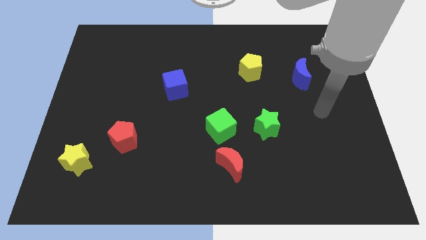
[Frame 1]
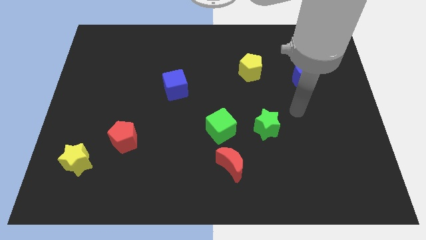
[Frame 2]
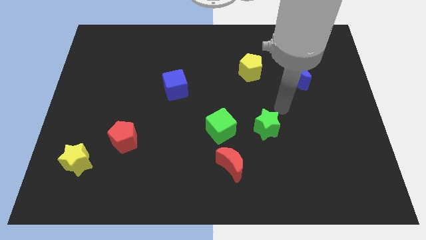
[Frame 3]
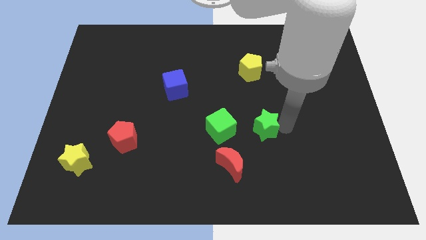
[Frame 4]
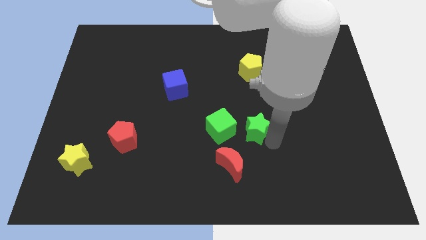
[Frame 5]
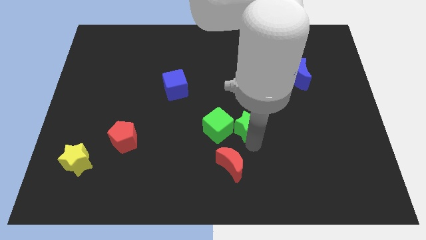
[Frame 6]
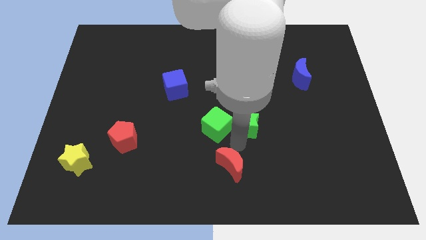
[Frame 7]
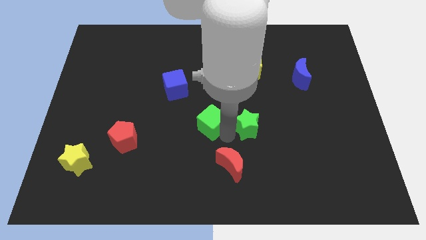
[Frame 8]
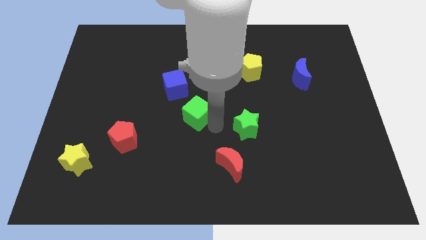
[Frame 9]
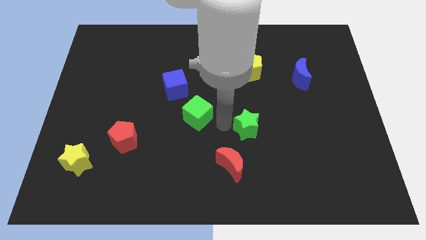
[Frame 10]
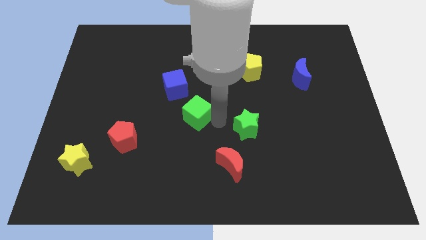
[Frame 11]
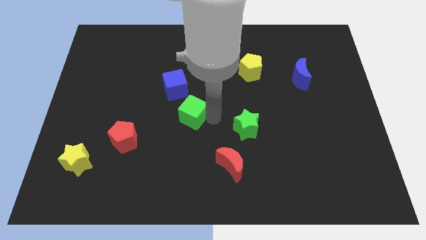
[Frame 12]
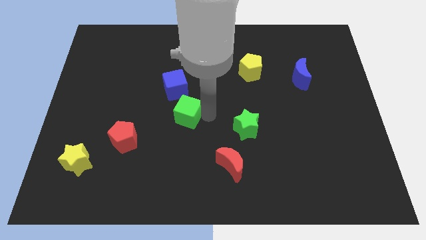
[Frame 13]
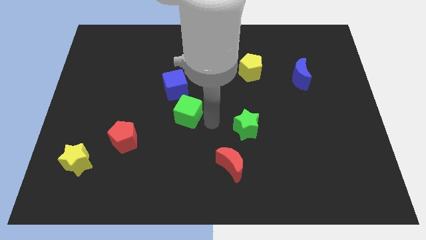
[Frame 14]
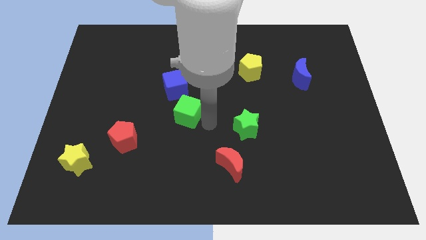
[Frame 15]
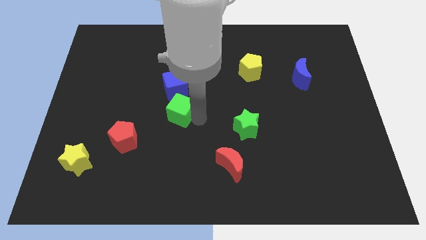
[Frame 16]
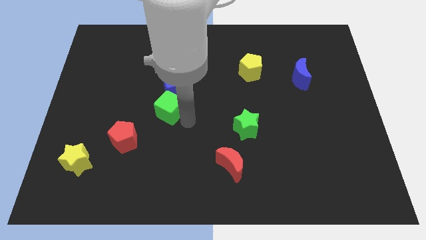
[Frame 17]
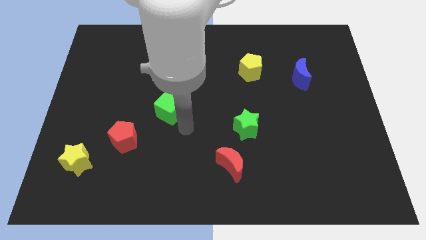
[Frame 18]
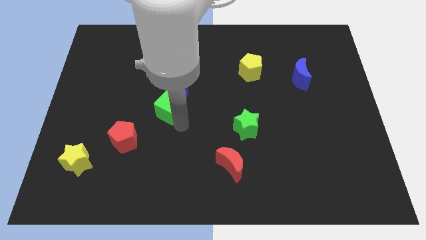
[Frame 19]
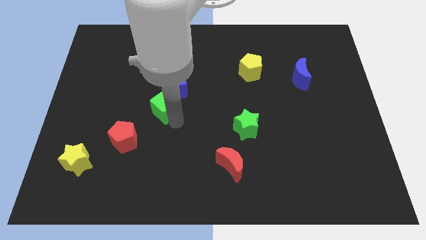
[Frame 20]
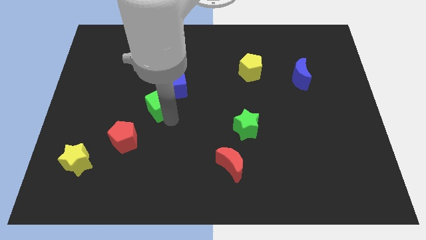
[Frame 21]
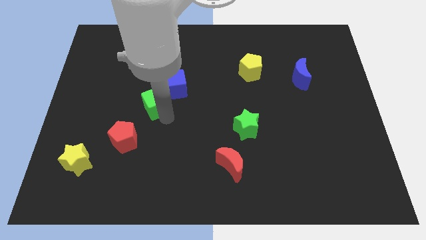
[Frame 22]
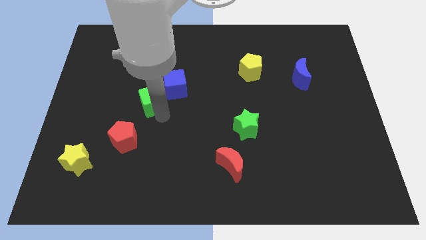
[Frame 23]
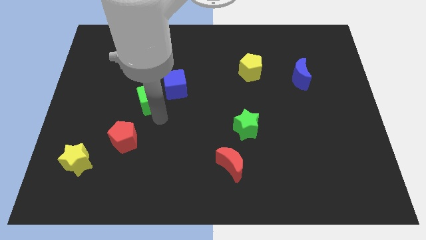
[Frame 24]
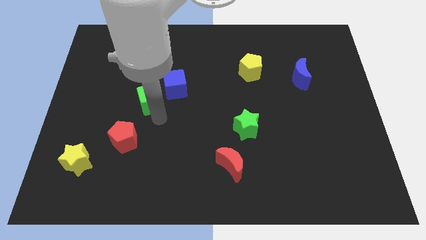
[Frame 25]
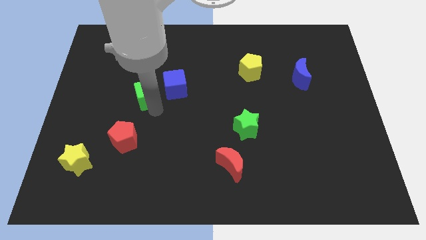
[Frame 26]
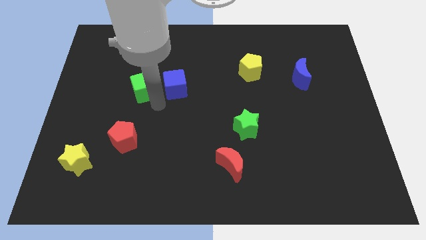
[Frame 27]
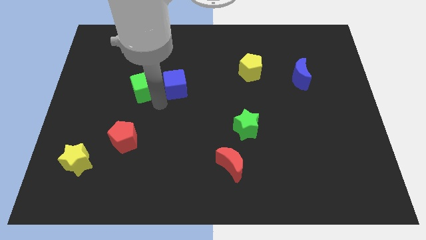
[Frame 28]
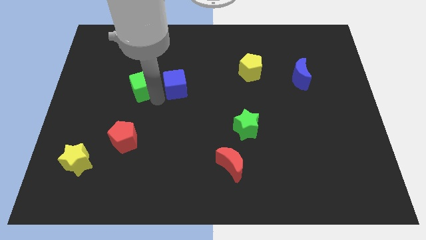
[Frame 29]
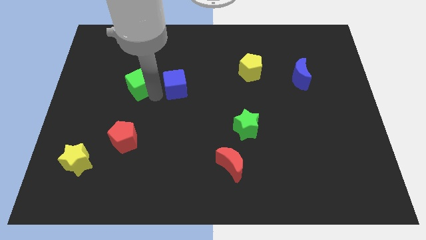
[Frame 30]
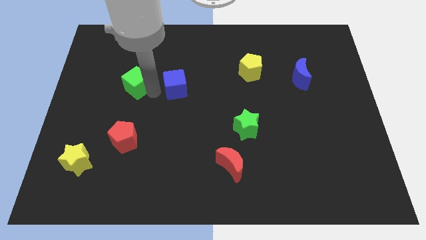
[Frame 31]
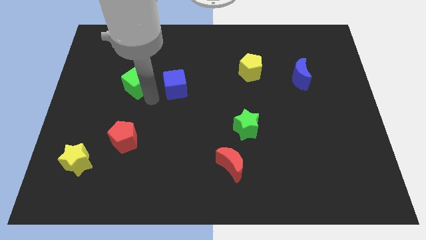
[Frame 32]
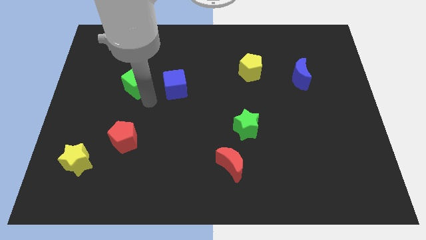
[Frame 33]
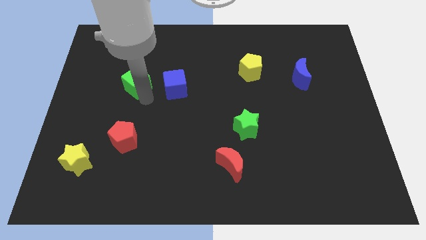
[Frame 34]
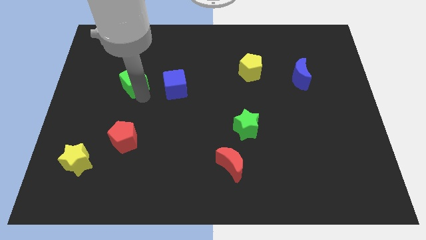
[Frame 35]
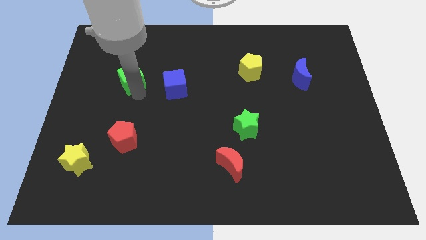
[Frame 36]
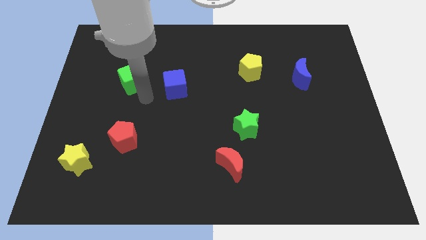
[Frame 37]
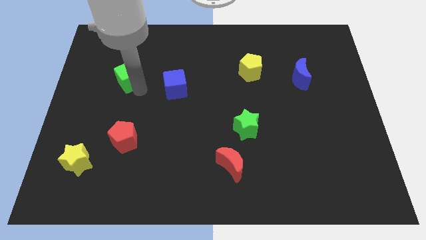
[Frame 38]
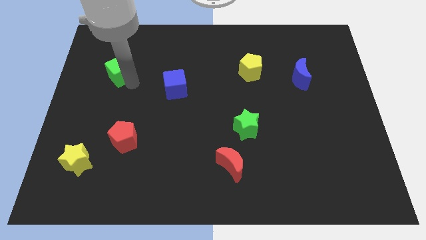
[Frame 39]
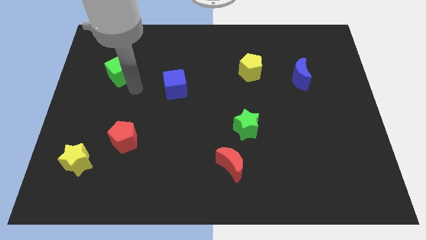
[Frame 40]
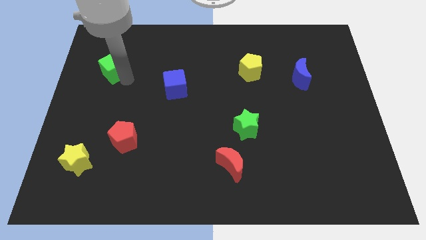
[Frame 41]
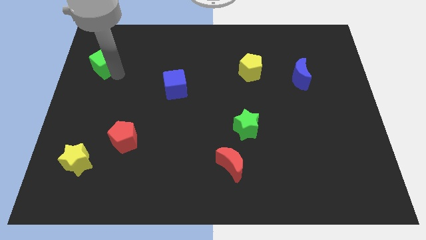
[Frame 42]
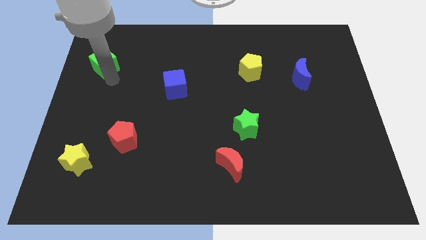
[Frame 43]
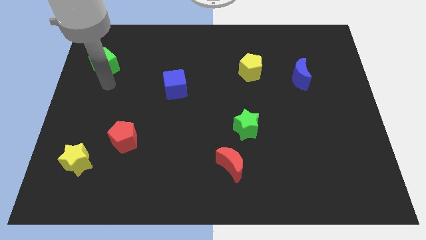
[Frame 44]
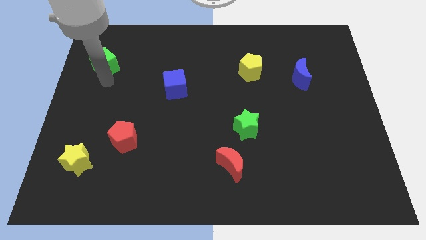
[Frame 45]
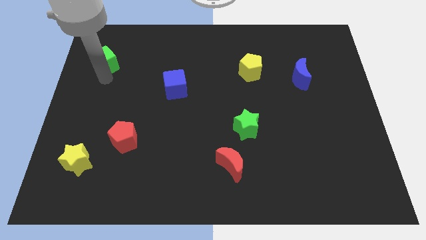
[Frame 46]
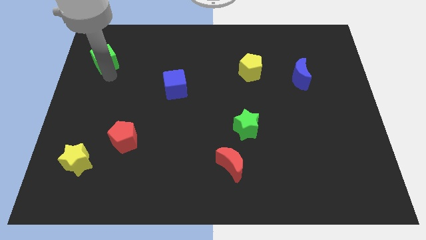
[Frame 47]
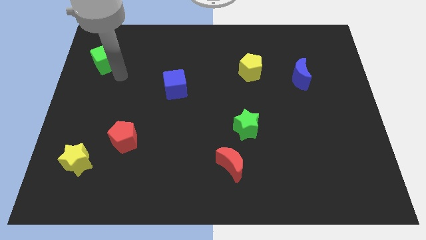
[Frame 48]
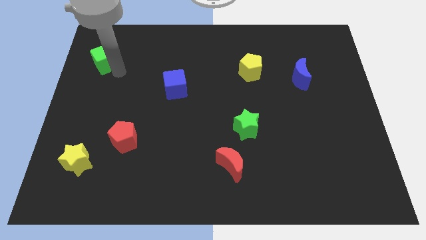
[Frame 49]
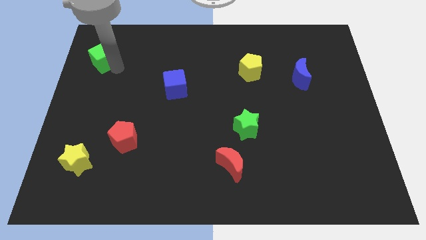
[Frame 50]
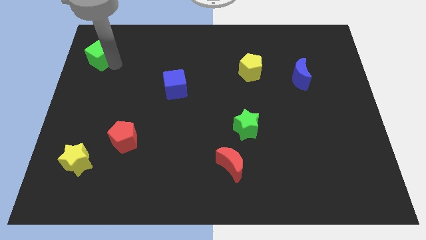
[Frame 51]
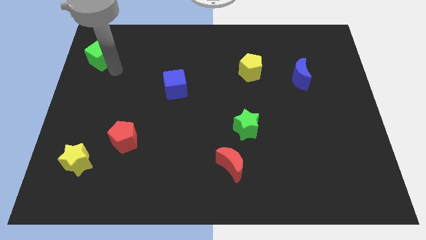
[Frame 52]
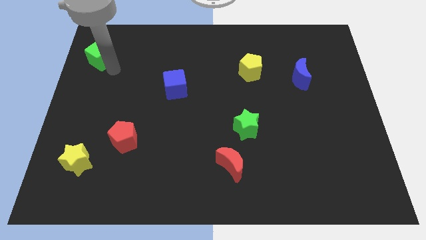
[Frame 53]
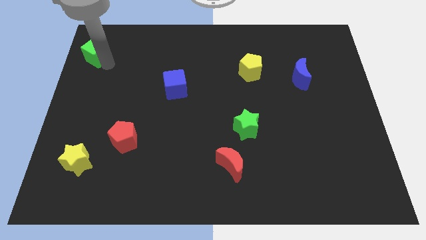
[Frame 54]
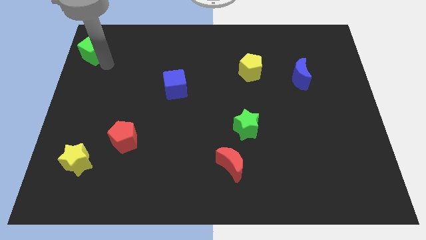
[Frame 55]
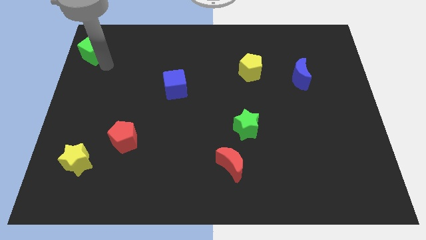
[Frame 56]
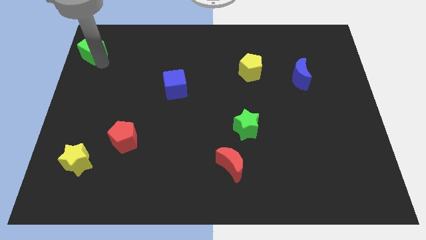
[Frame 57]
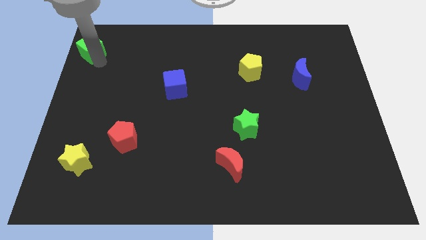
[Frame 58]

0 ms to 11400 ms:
slide the green cube to the top left of the board
